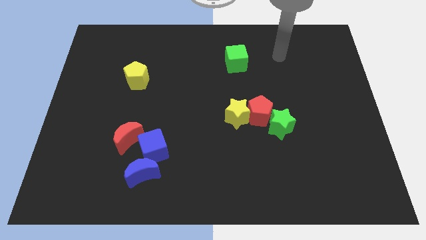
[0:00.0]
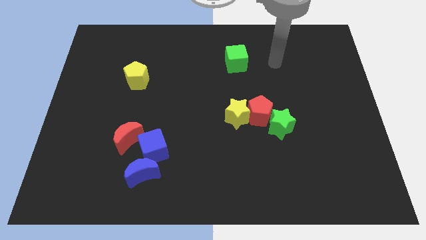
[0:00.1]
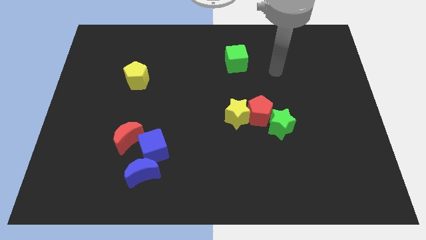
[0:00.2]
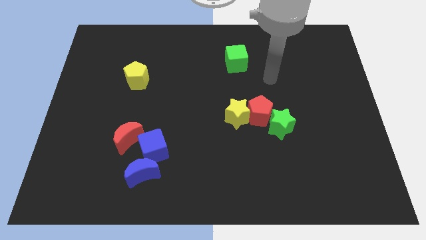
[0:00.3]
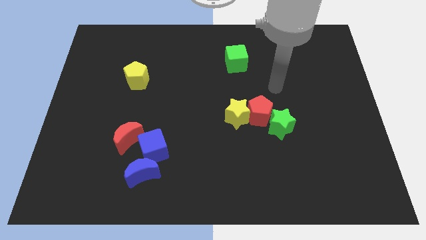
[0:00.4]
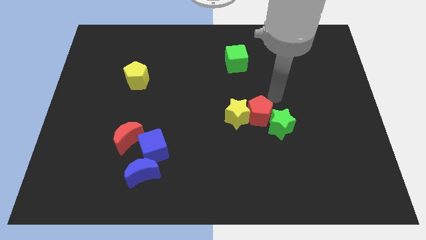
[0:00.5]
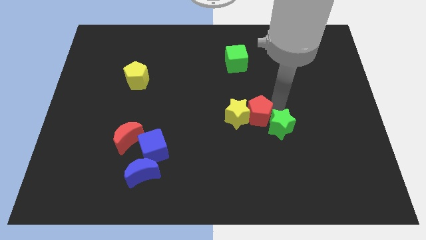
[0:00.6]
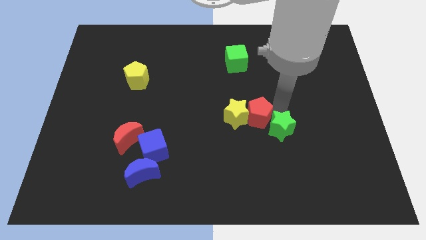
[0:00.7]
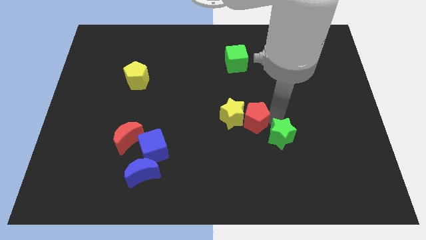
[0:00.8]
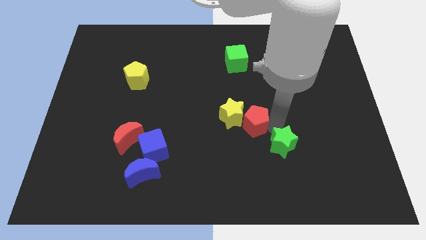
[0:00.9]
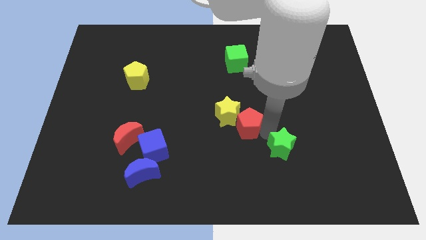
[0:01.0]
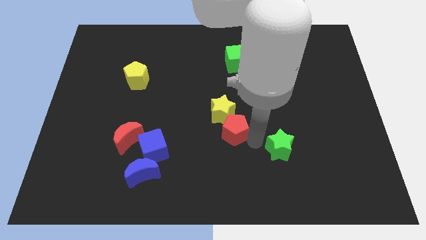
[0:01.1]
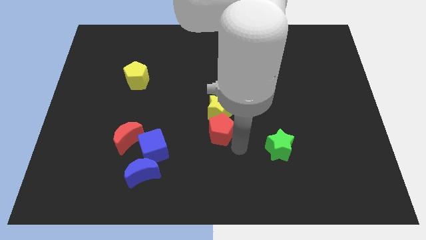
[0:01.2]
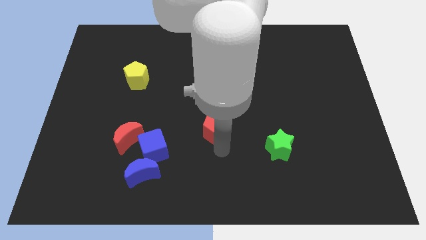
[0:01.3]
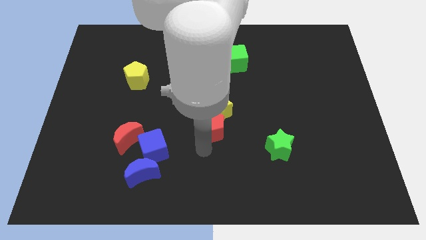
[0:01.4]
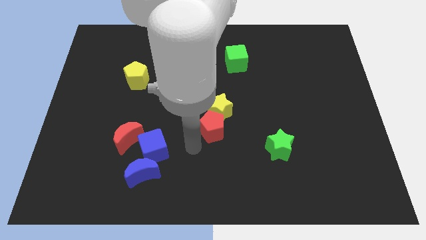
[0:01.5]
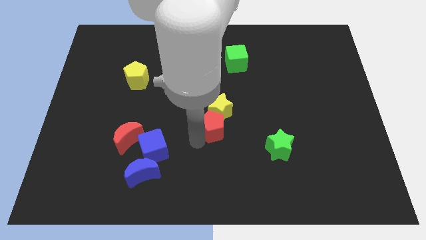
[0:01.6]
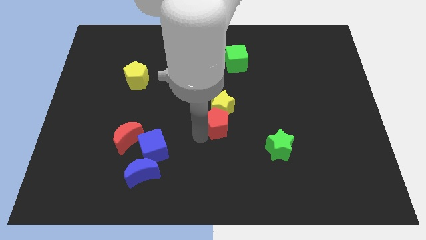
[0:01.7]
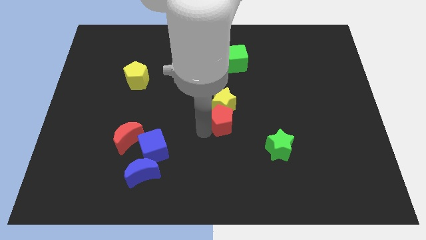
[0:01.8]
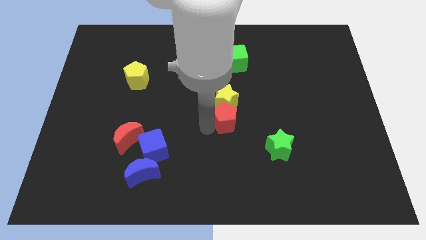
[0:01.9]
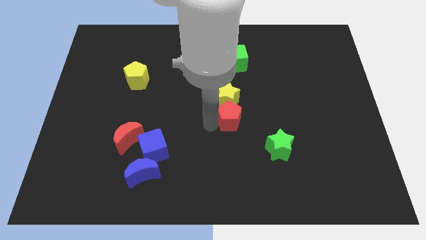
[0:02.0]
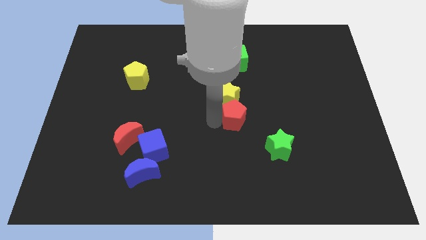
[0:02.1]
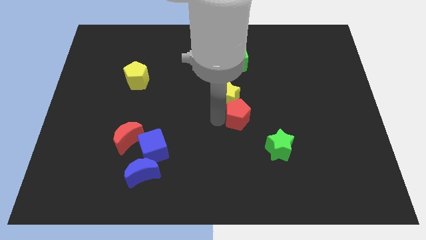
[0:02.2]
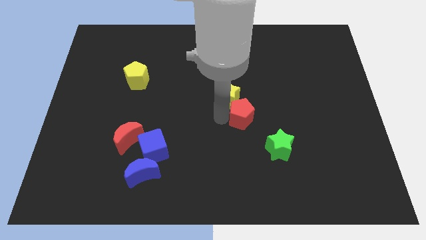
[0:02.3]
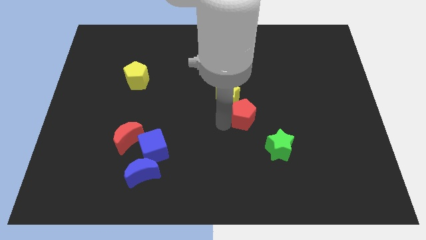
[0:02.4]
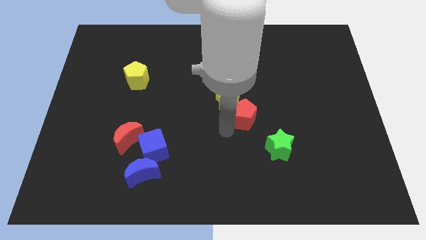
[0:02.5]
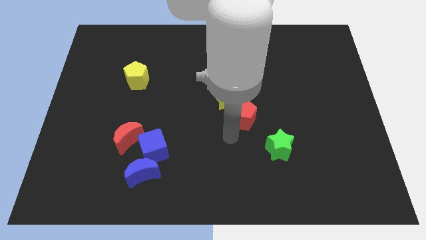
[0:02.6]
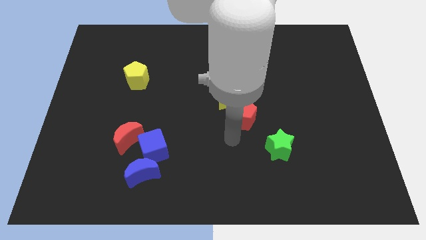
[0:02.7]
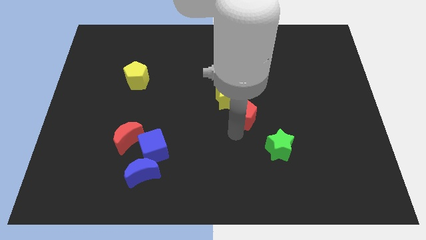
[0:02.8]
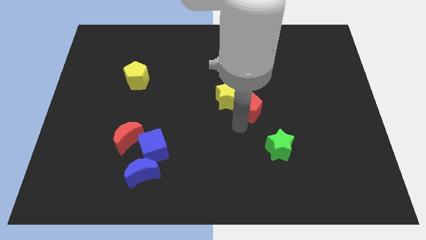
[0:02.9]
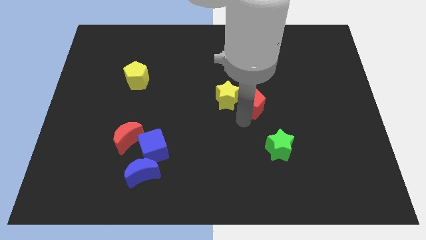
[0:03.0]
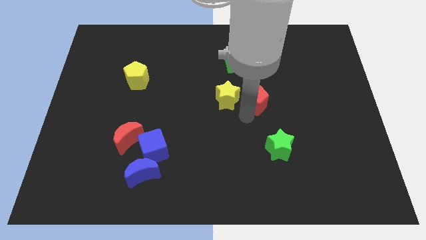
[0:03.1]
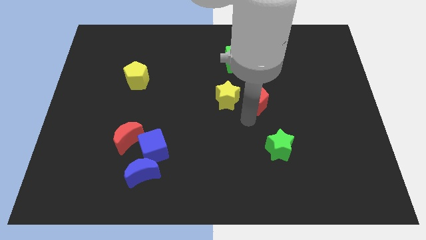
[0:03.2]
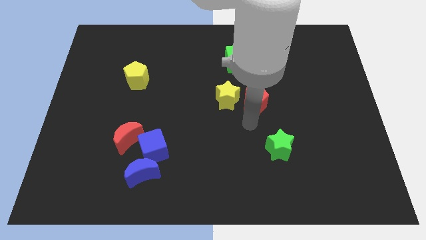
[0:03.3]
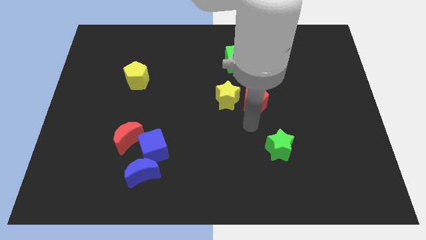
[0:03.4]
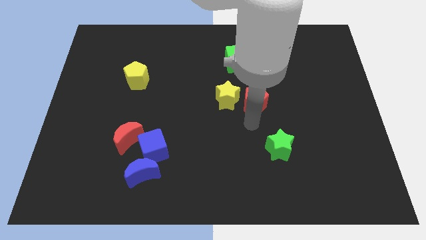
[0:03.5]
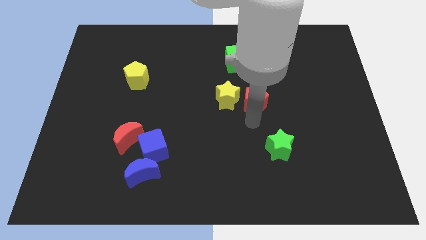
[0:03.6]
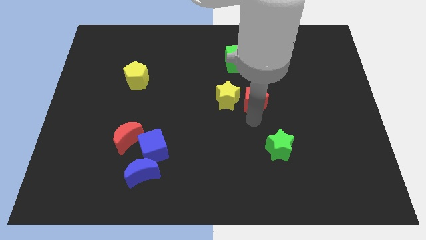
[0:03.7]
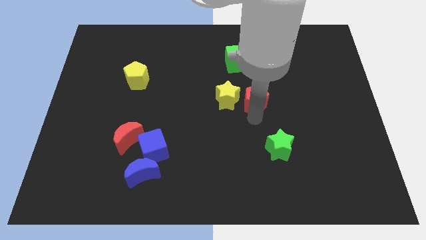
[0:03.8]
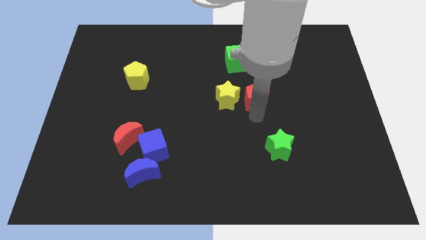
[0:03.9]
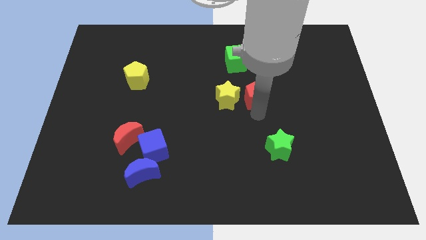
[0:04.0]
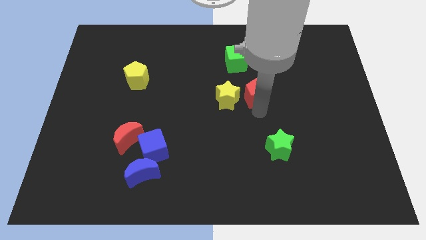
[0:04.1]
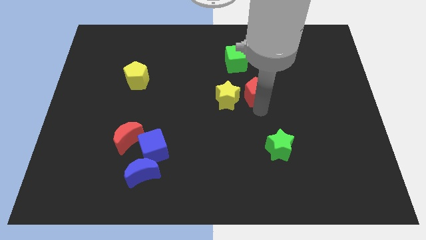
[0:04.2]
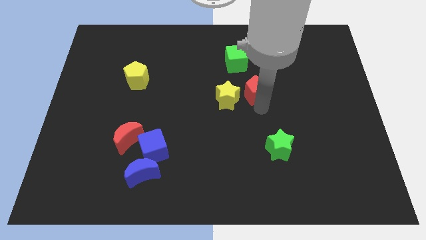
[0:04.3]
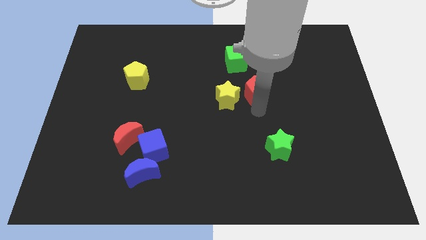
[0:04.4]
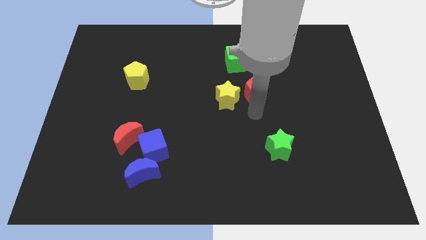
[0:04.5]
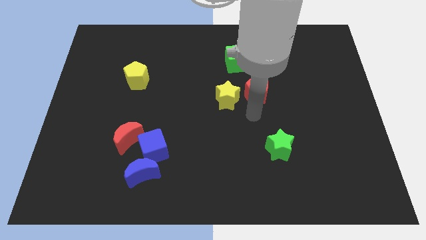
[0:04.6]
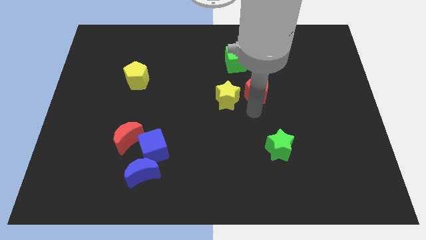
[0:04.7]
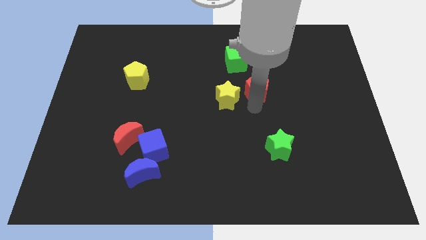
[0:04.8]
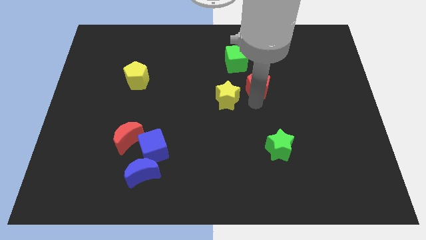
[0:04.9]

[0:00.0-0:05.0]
pull the red pentagon apart from the yellow star and green star

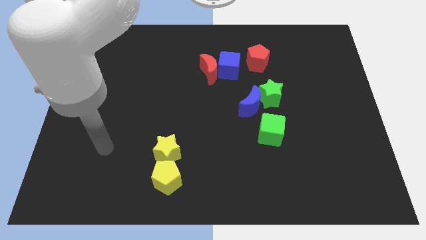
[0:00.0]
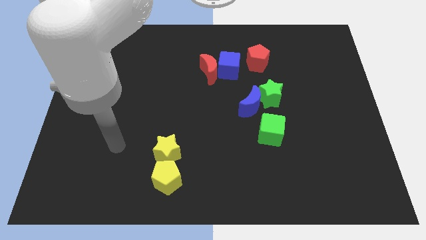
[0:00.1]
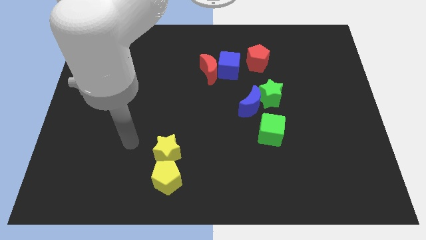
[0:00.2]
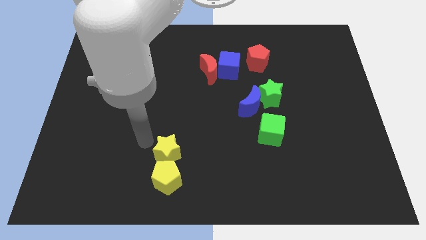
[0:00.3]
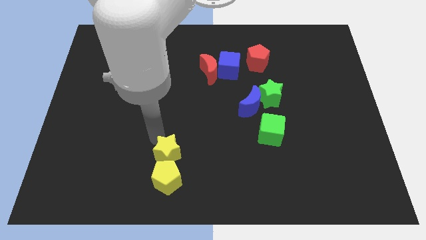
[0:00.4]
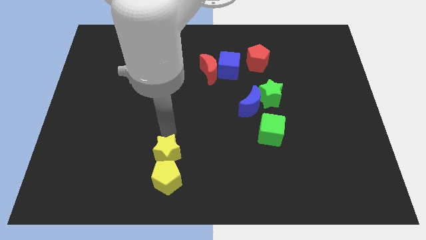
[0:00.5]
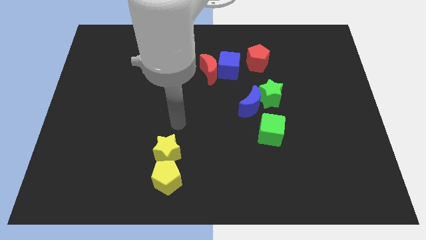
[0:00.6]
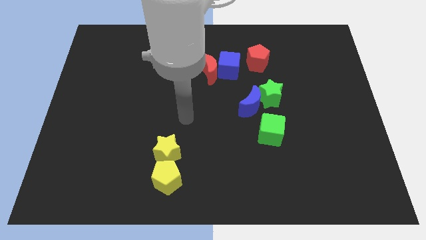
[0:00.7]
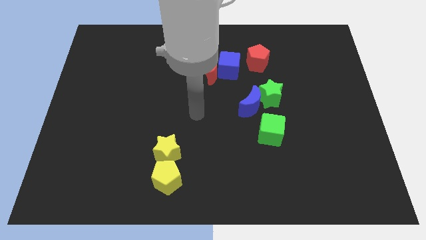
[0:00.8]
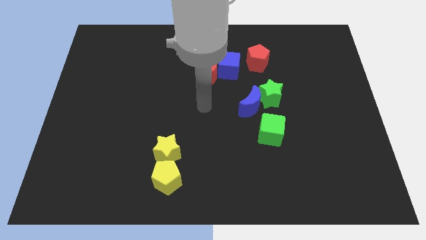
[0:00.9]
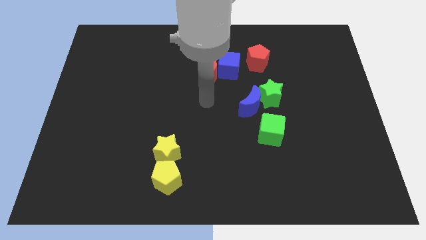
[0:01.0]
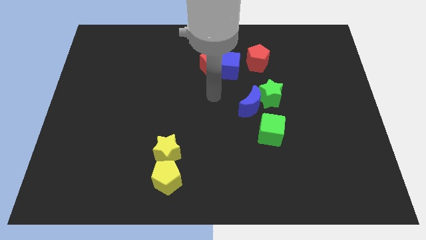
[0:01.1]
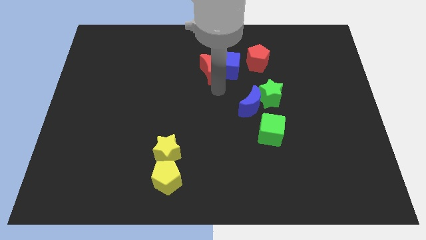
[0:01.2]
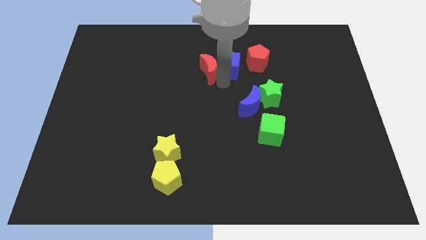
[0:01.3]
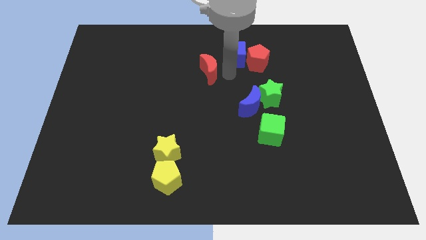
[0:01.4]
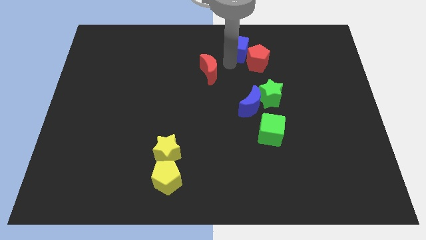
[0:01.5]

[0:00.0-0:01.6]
separate the red moon from the blue cube

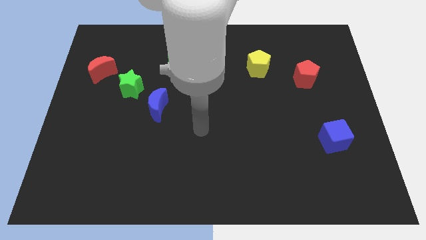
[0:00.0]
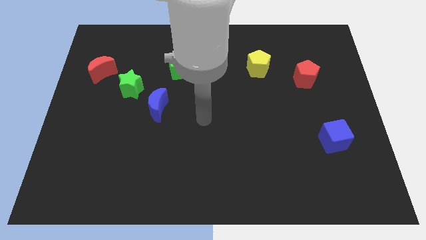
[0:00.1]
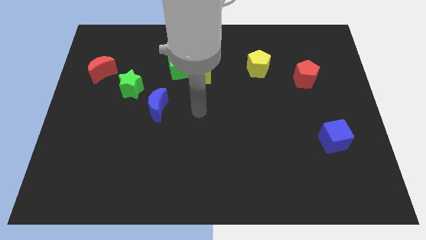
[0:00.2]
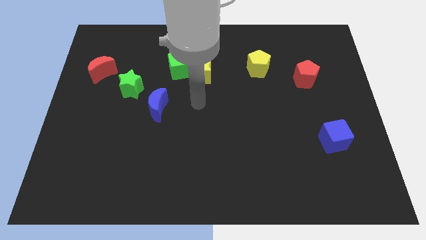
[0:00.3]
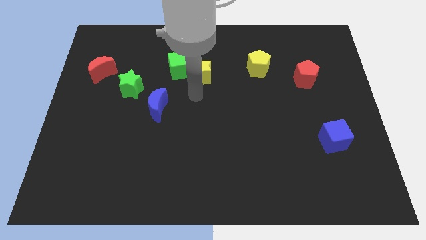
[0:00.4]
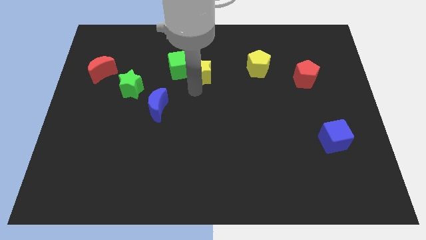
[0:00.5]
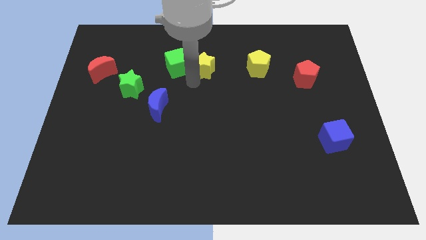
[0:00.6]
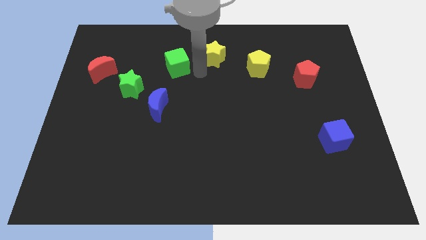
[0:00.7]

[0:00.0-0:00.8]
move the green cube away from the yellow star

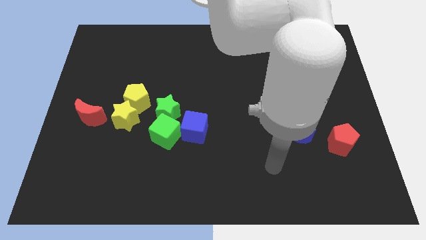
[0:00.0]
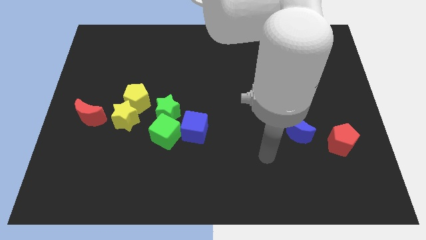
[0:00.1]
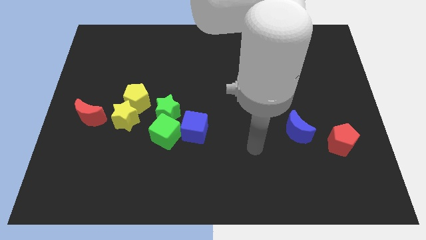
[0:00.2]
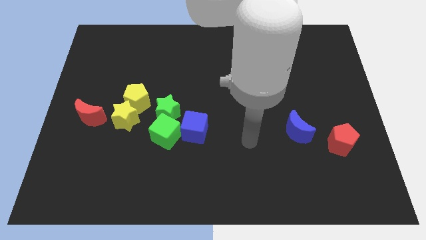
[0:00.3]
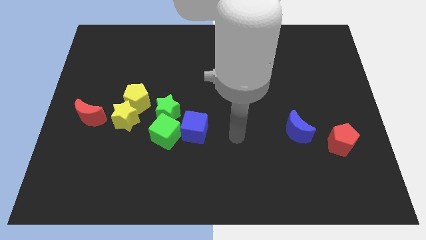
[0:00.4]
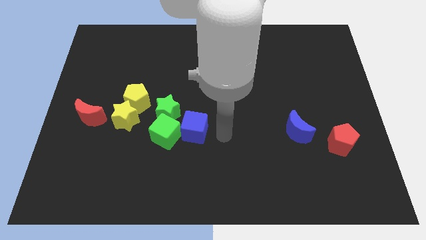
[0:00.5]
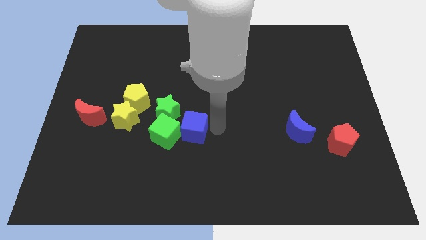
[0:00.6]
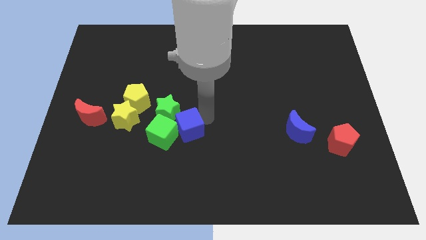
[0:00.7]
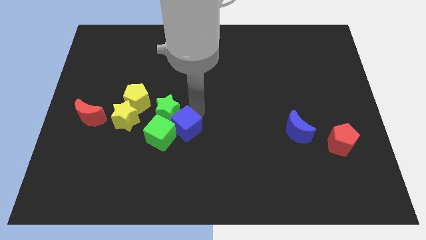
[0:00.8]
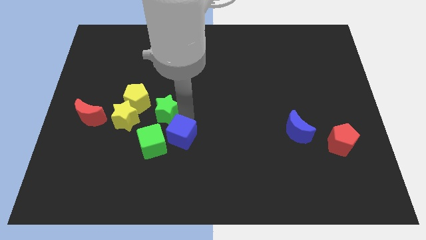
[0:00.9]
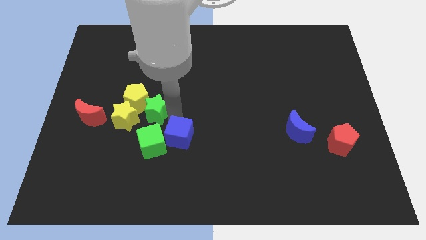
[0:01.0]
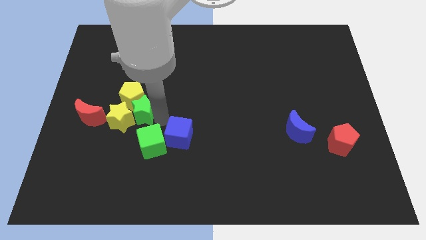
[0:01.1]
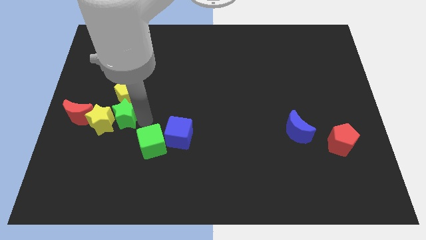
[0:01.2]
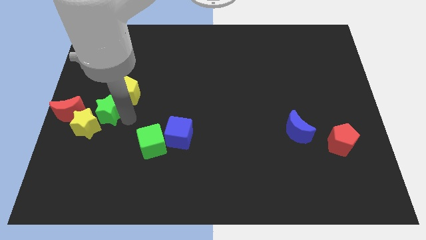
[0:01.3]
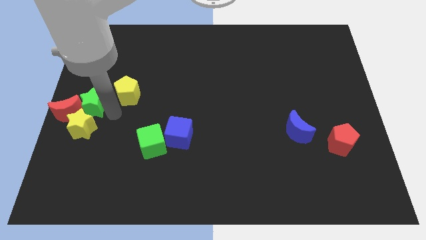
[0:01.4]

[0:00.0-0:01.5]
pull the yellow pentagon apart from the yellow star and green star

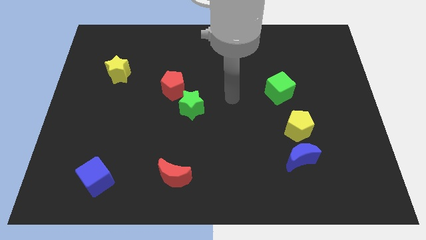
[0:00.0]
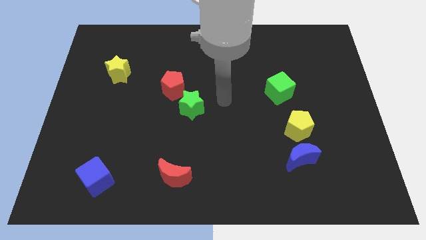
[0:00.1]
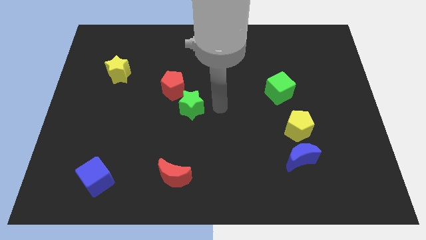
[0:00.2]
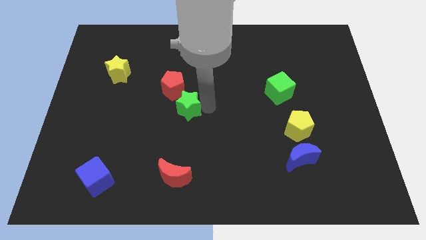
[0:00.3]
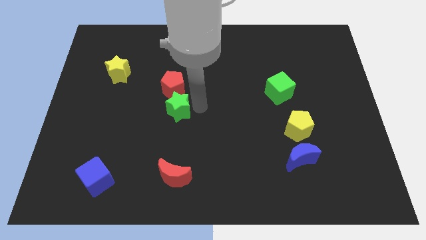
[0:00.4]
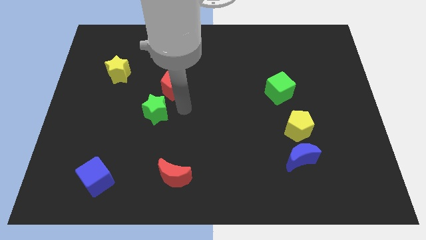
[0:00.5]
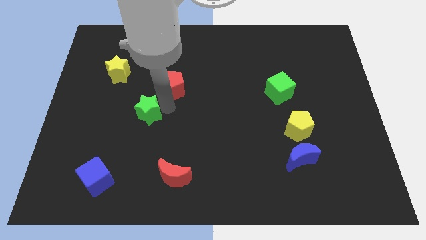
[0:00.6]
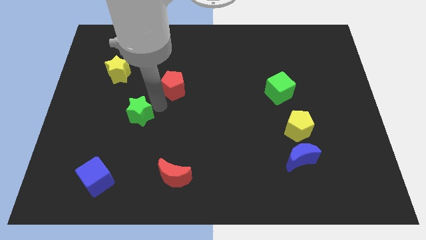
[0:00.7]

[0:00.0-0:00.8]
pull the red pentagon apart from the green star
